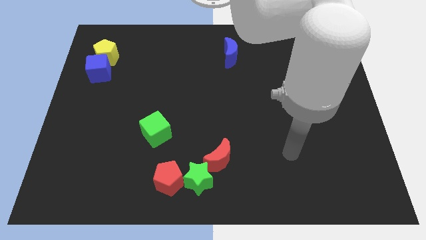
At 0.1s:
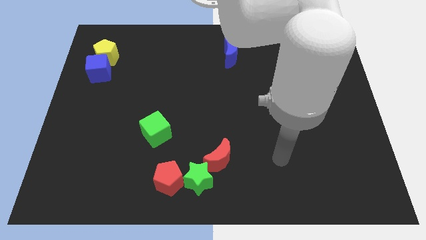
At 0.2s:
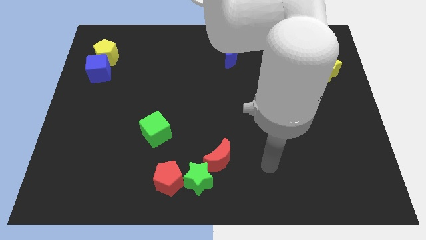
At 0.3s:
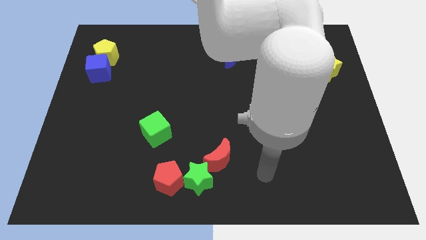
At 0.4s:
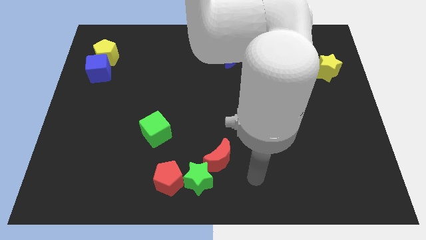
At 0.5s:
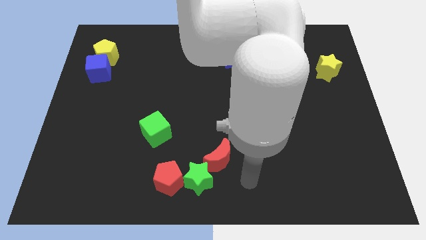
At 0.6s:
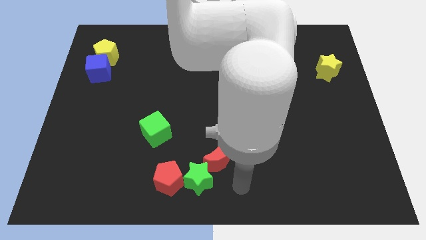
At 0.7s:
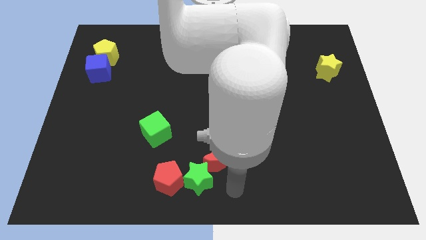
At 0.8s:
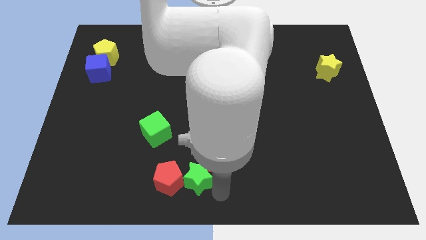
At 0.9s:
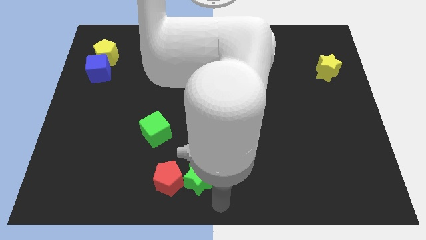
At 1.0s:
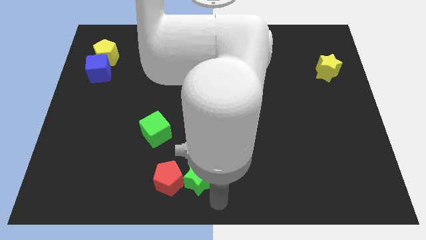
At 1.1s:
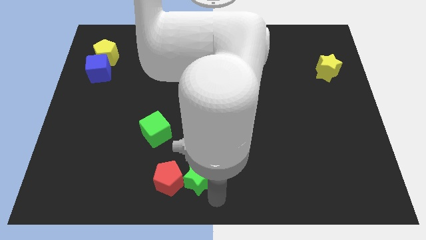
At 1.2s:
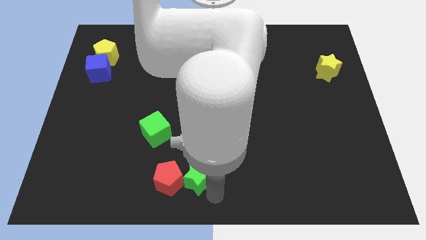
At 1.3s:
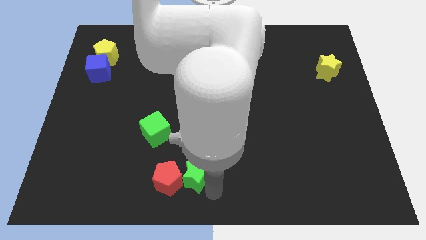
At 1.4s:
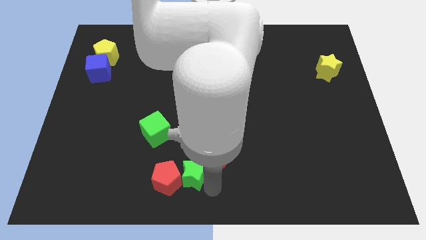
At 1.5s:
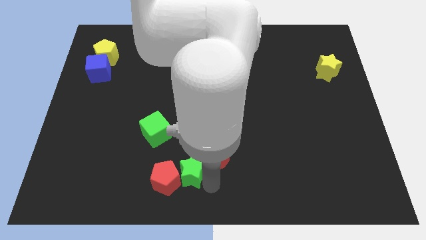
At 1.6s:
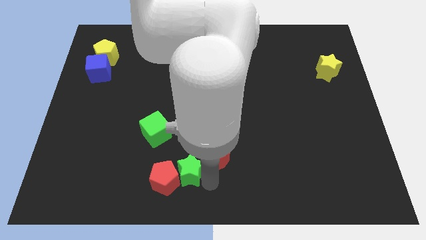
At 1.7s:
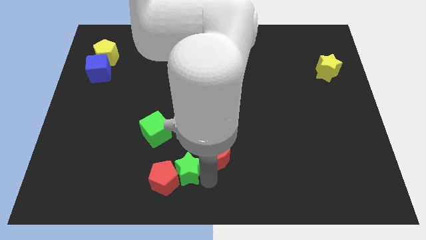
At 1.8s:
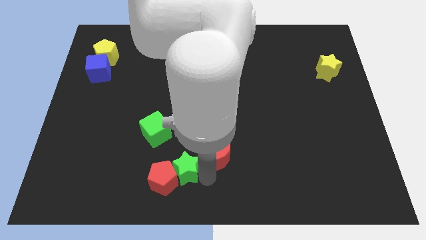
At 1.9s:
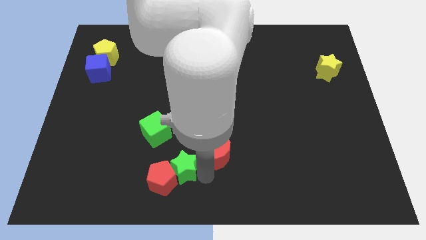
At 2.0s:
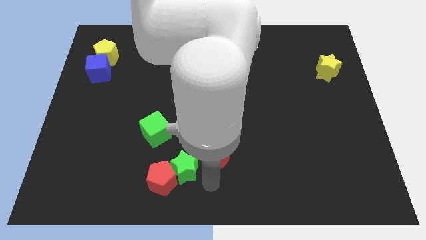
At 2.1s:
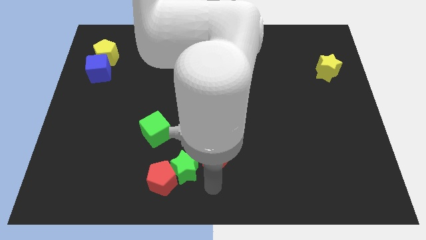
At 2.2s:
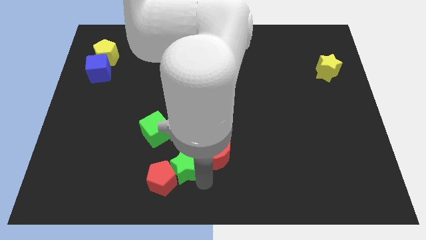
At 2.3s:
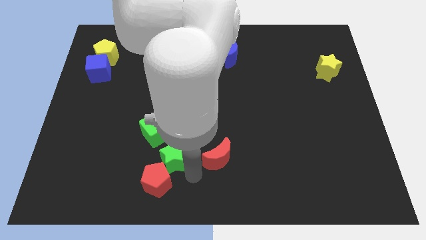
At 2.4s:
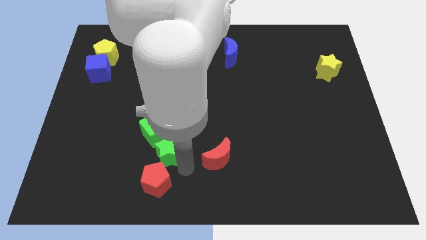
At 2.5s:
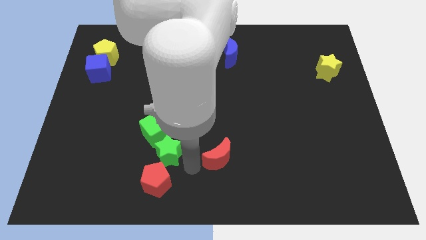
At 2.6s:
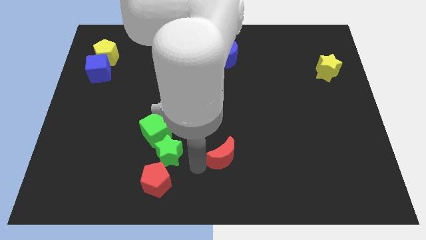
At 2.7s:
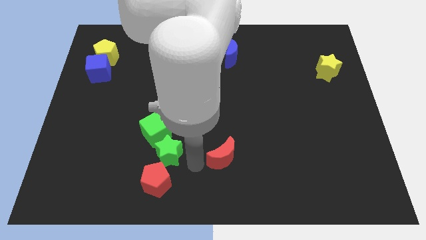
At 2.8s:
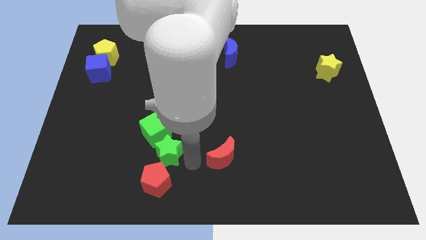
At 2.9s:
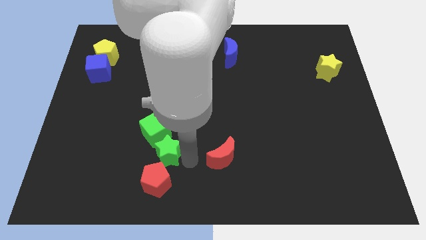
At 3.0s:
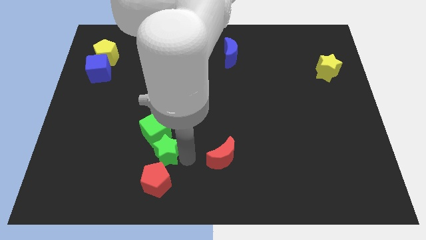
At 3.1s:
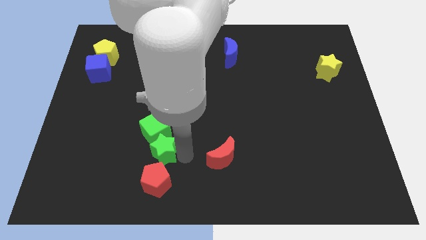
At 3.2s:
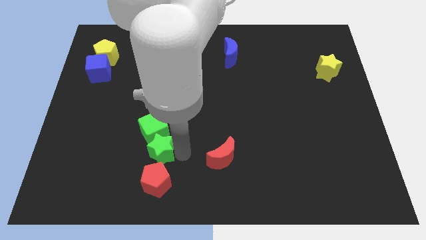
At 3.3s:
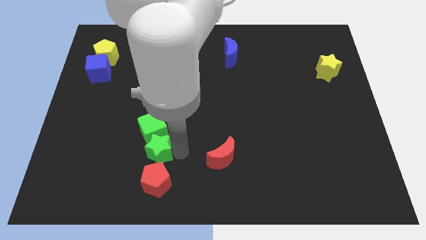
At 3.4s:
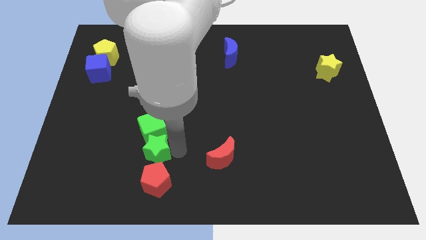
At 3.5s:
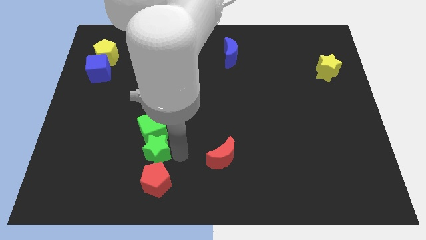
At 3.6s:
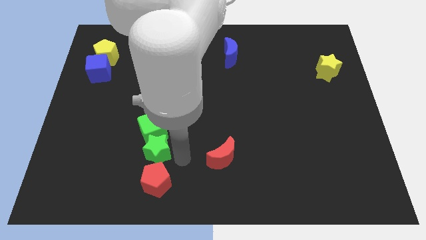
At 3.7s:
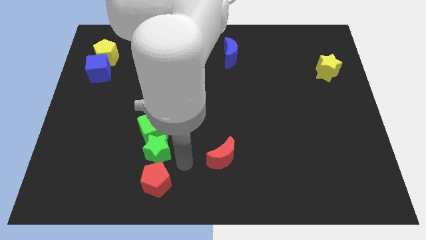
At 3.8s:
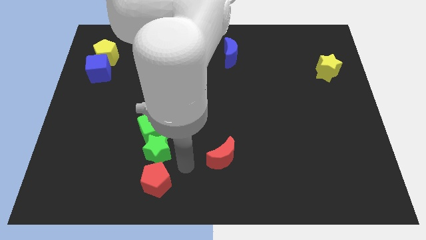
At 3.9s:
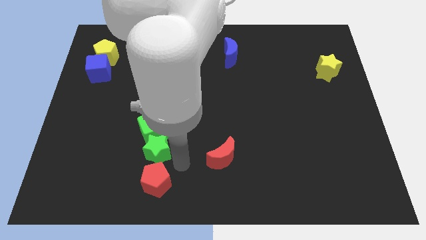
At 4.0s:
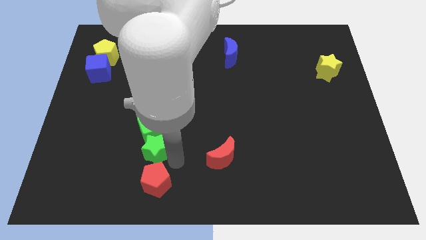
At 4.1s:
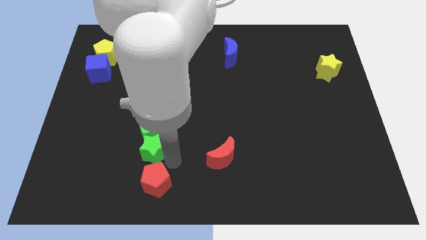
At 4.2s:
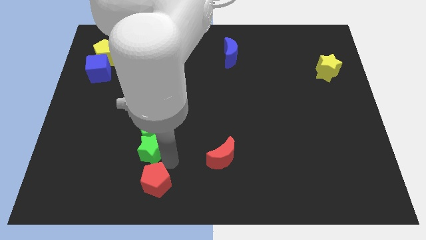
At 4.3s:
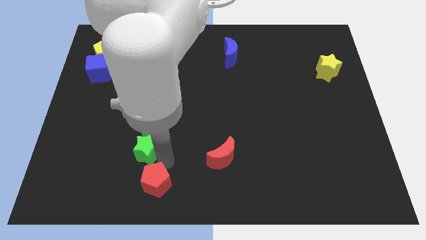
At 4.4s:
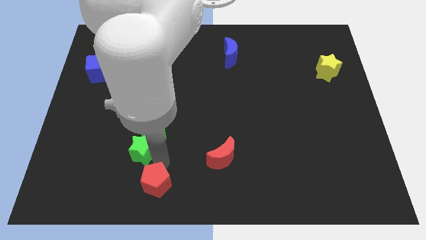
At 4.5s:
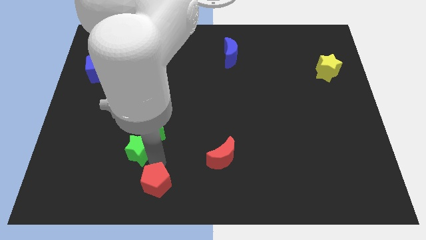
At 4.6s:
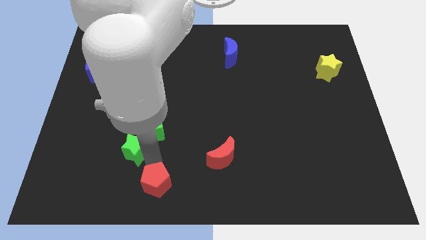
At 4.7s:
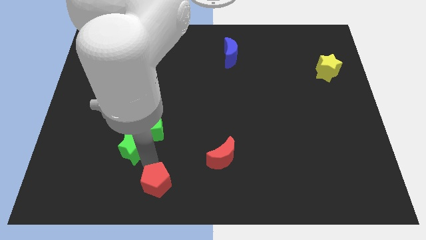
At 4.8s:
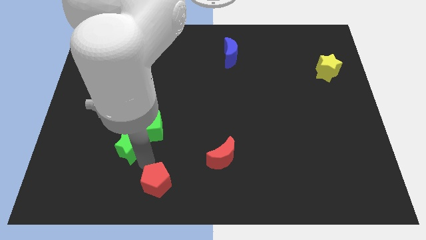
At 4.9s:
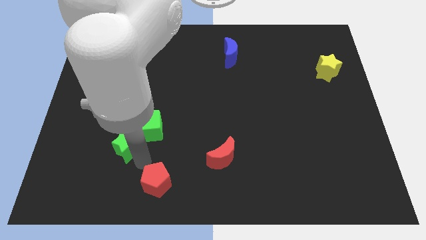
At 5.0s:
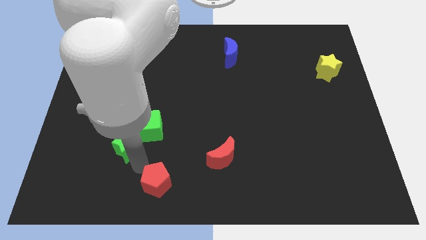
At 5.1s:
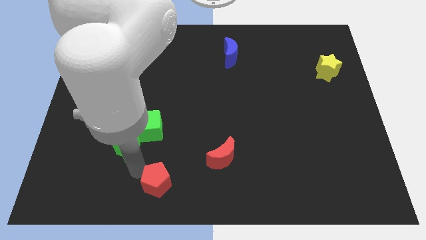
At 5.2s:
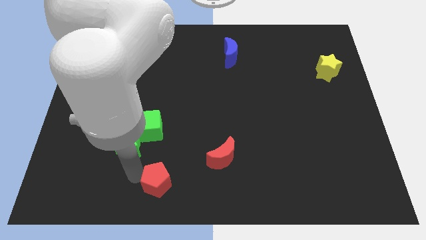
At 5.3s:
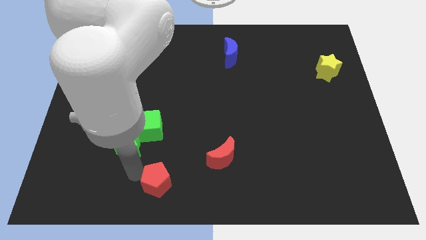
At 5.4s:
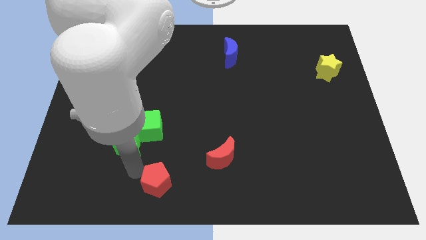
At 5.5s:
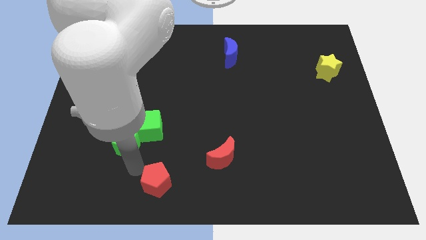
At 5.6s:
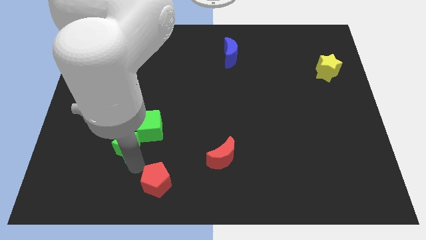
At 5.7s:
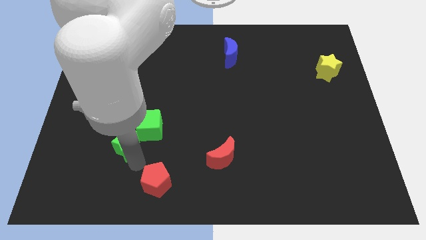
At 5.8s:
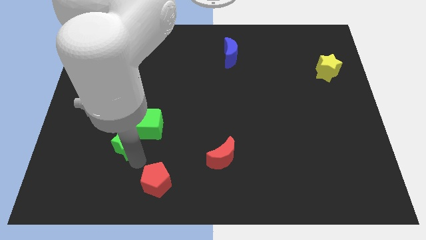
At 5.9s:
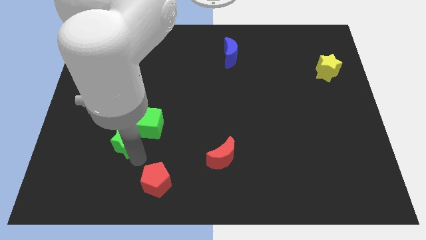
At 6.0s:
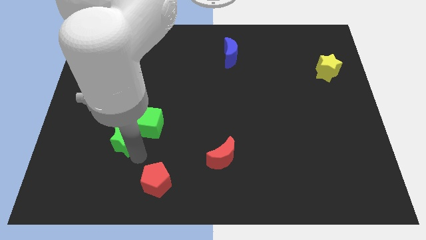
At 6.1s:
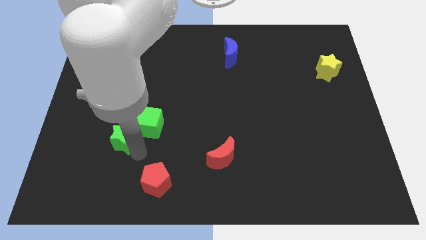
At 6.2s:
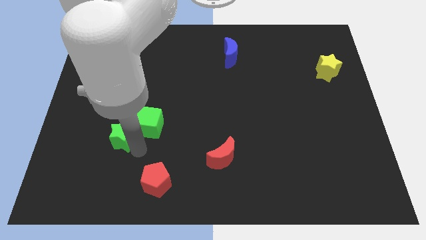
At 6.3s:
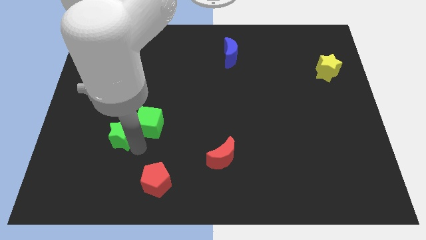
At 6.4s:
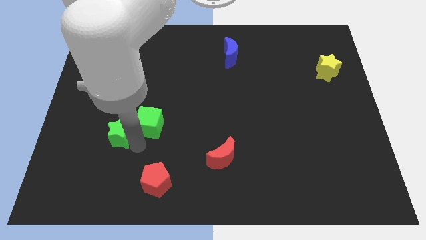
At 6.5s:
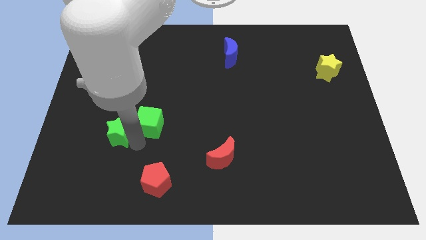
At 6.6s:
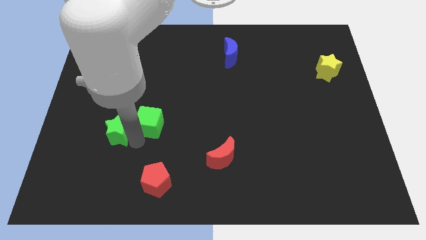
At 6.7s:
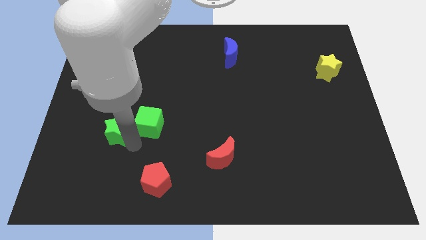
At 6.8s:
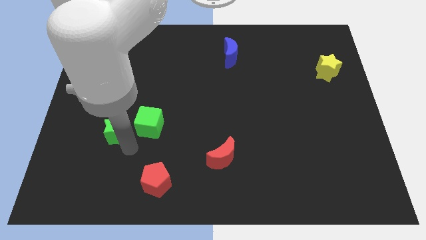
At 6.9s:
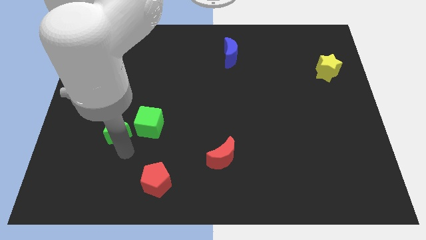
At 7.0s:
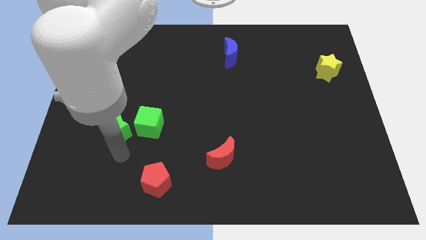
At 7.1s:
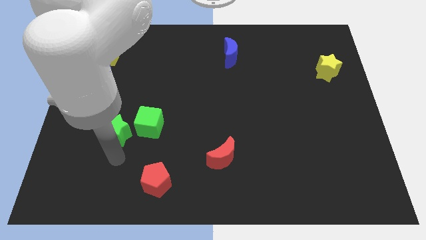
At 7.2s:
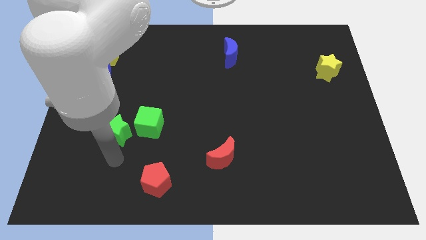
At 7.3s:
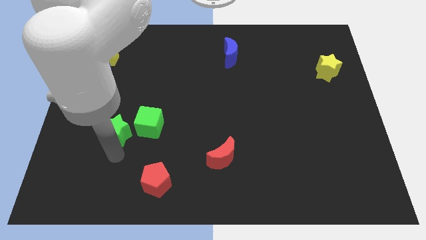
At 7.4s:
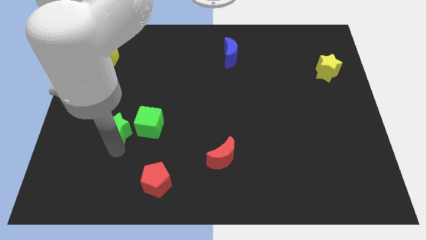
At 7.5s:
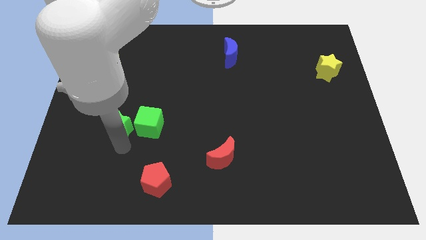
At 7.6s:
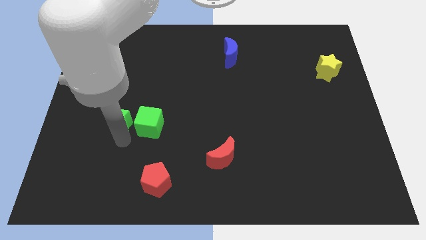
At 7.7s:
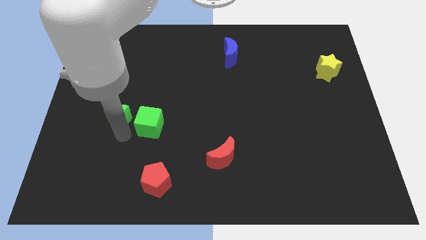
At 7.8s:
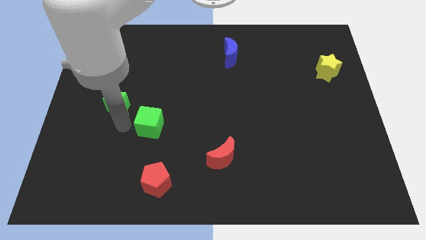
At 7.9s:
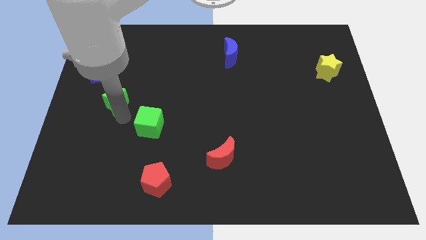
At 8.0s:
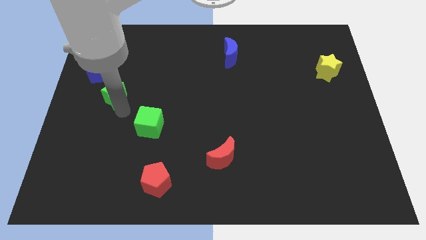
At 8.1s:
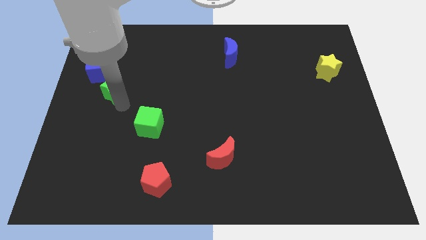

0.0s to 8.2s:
push the green star below the yellow pentagon
